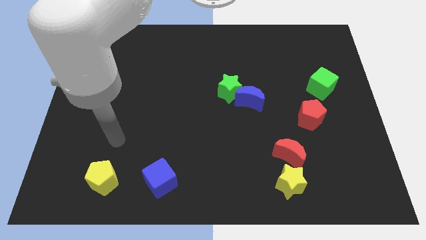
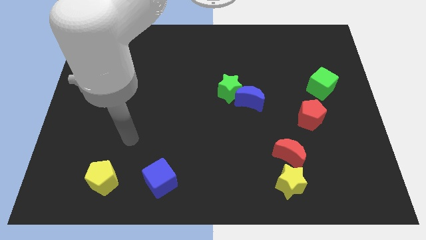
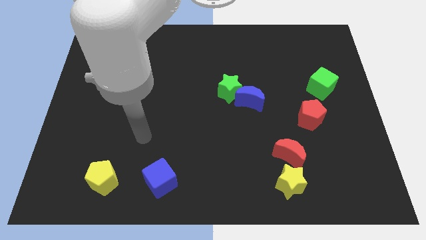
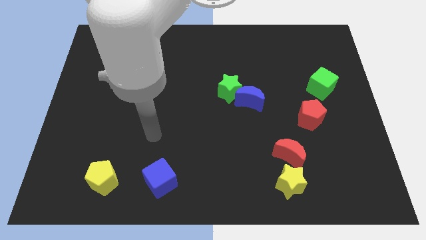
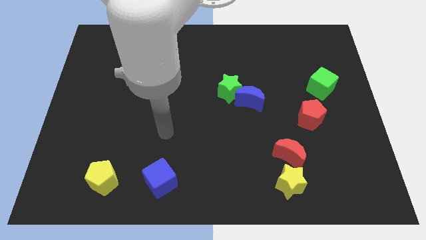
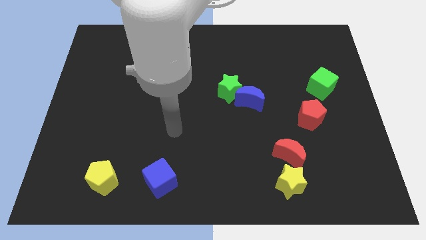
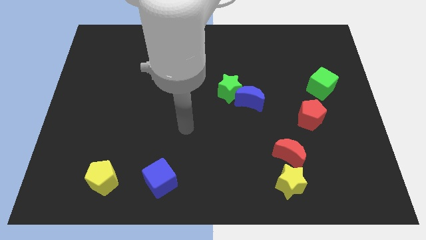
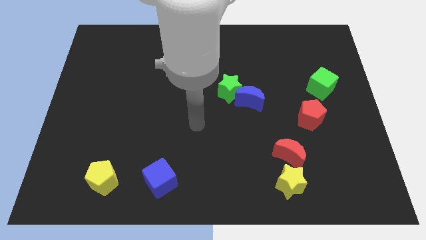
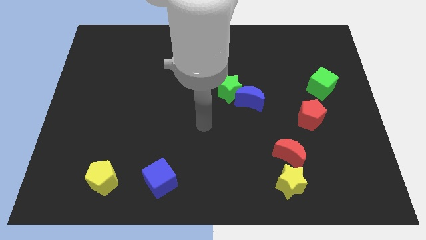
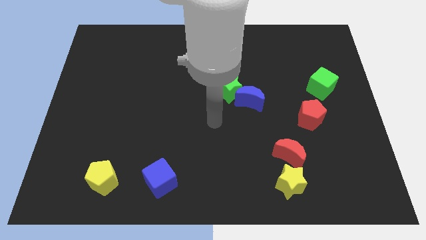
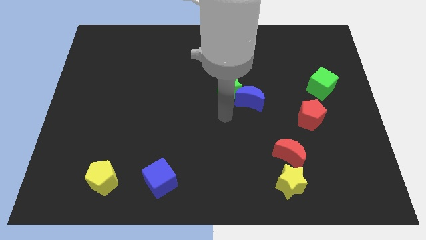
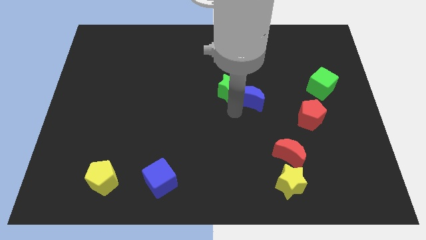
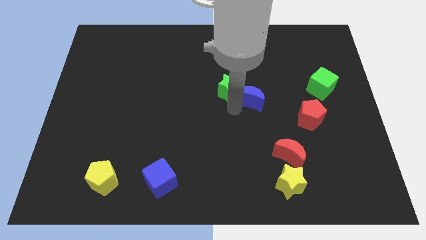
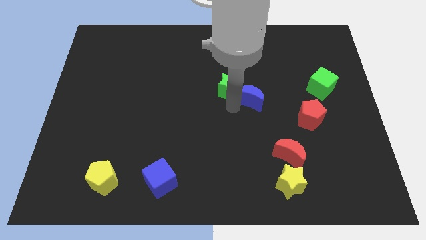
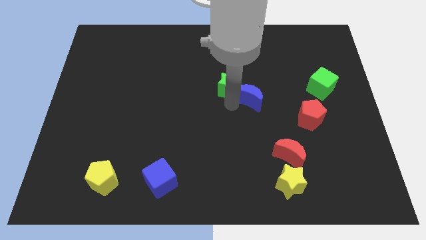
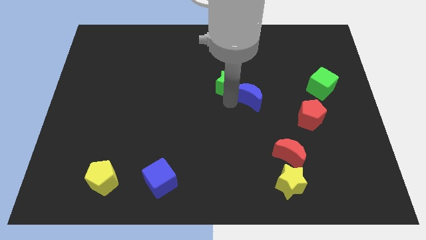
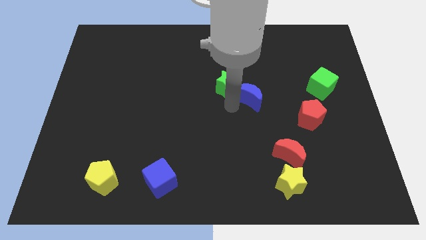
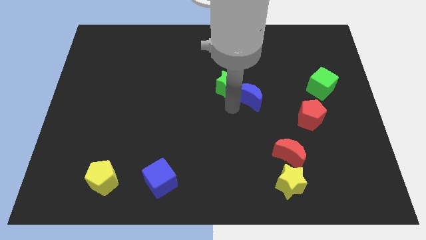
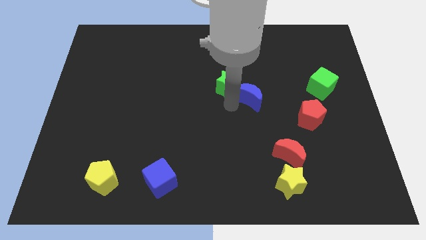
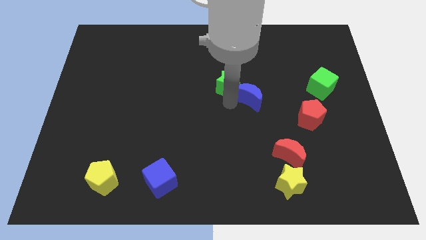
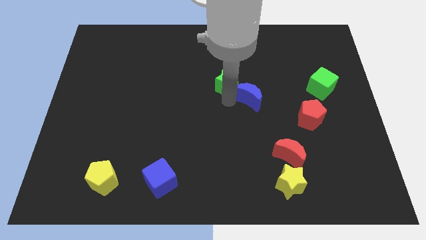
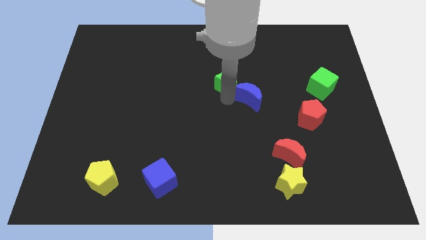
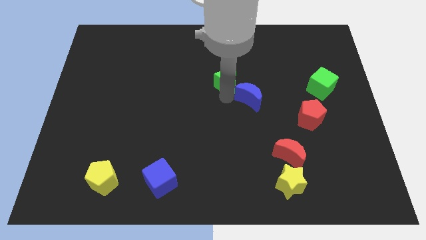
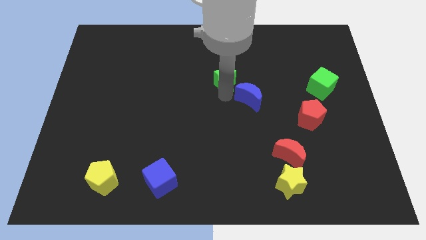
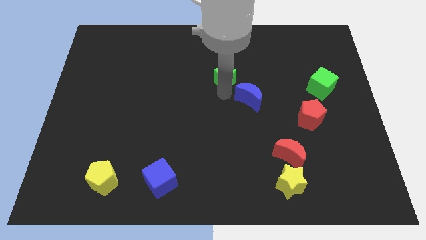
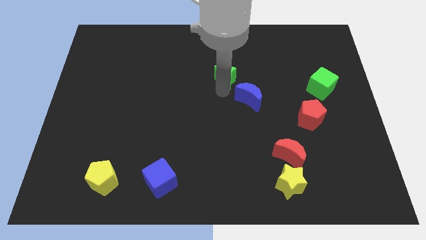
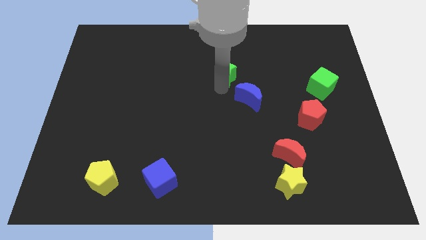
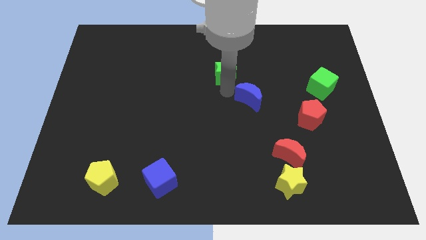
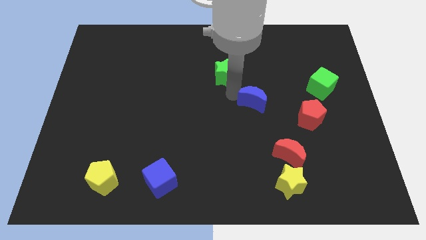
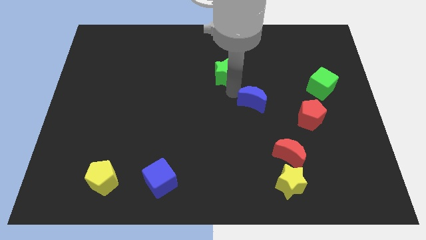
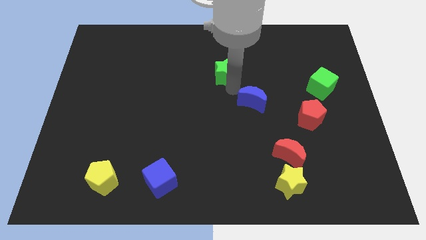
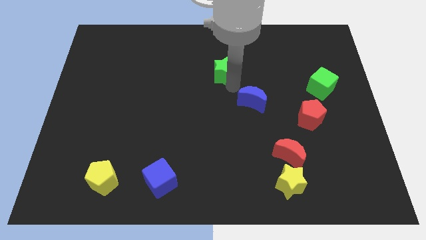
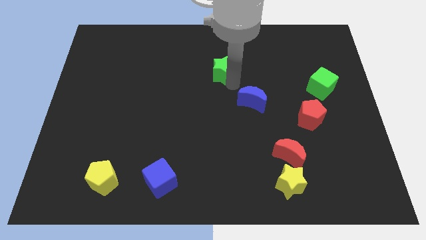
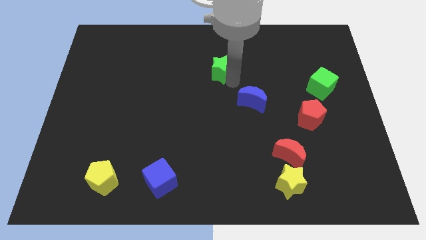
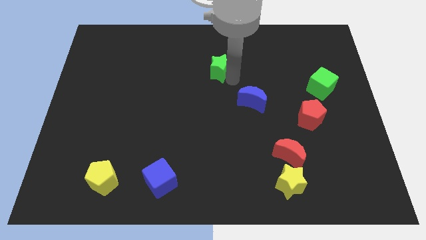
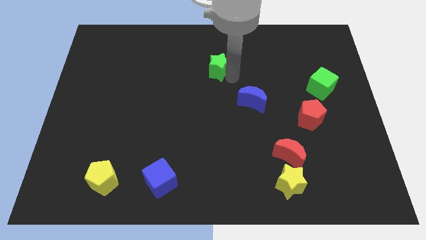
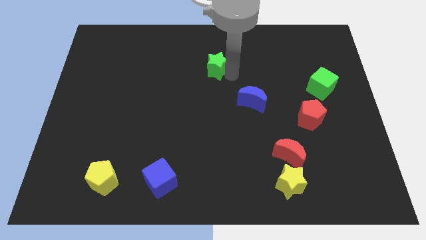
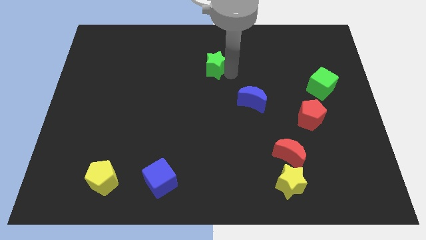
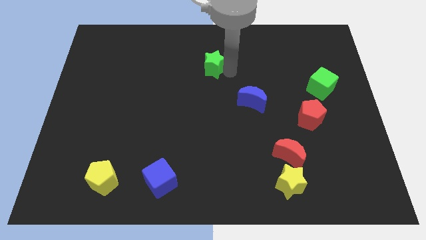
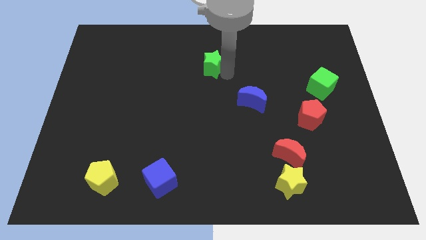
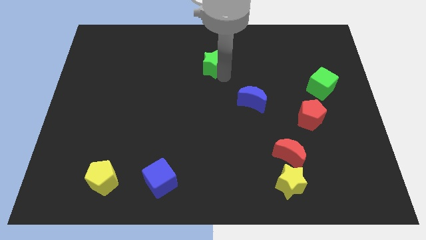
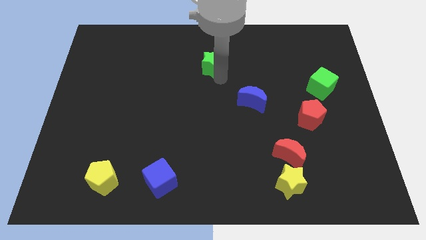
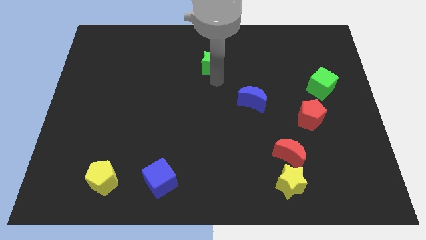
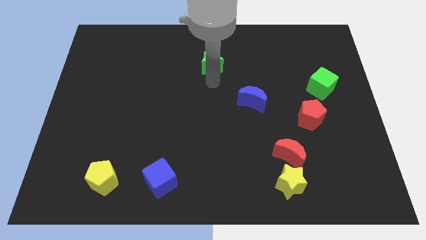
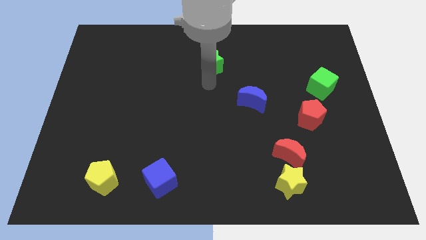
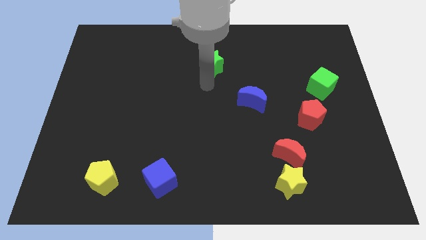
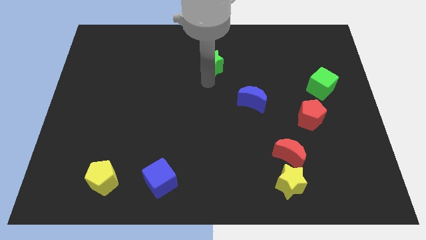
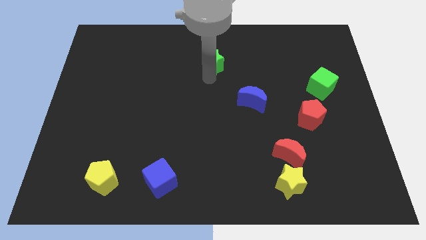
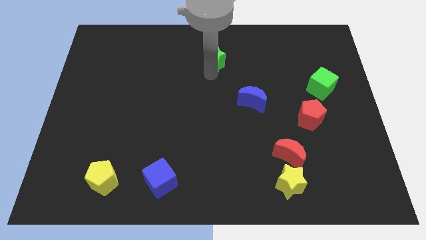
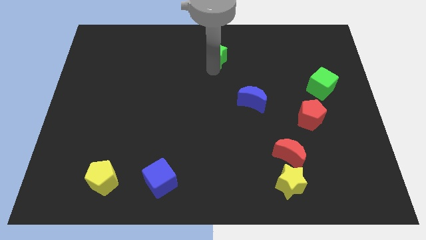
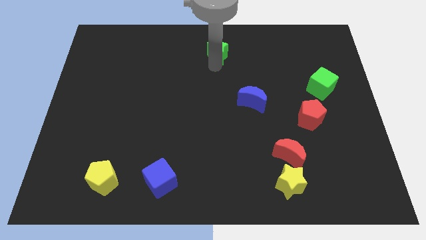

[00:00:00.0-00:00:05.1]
push the green star to the top side

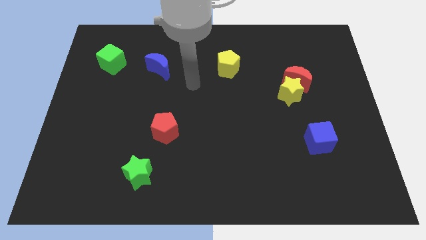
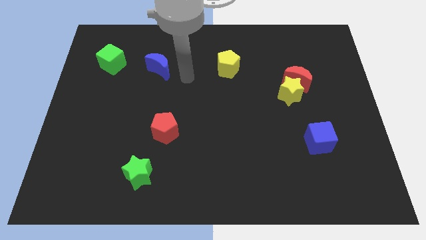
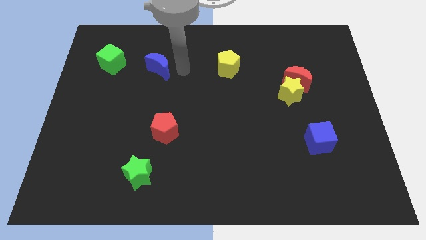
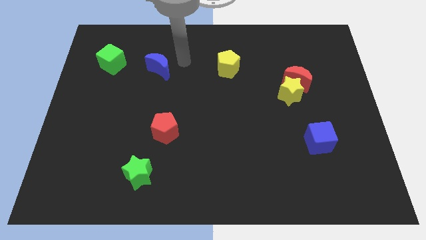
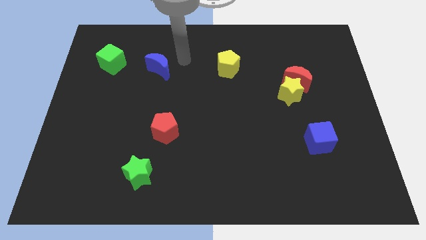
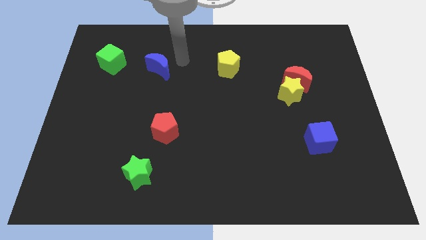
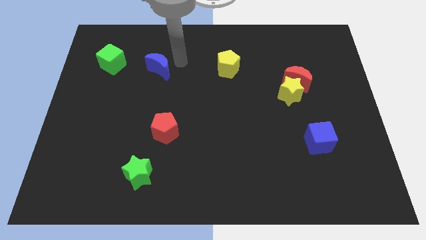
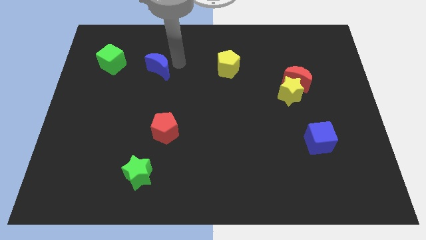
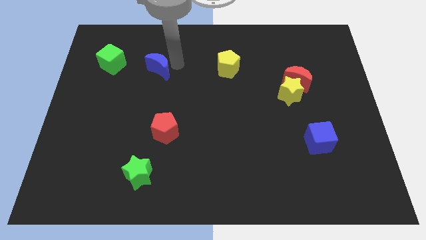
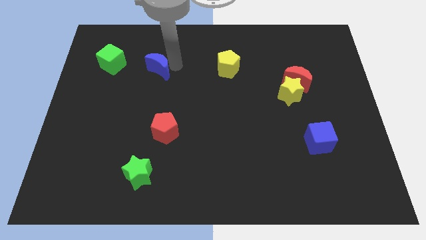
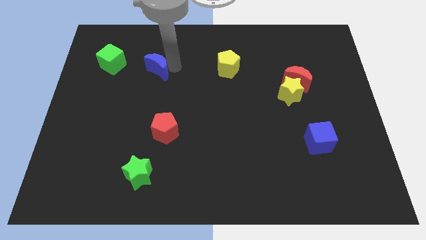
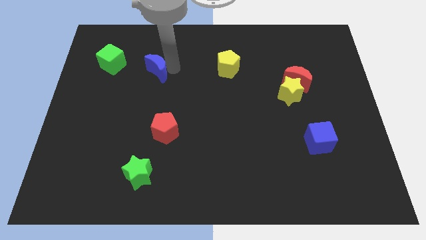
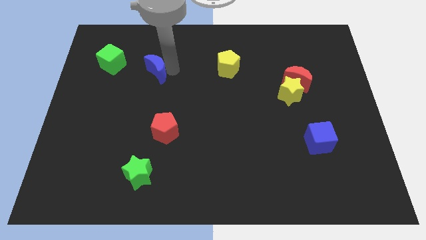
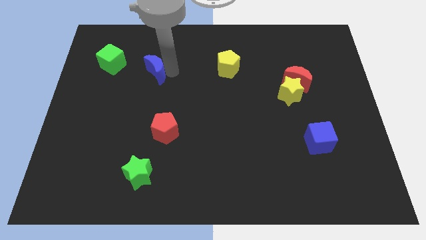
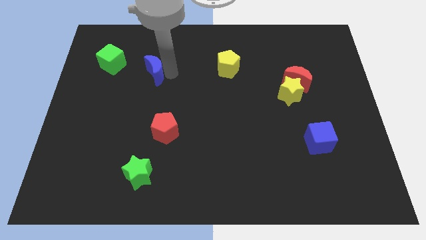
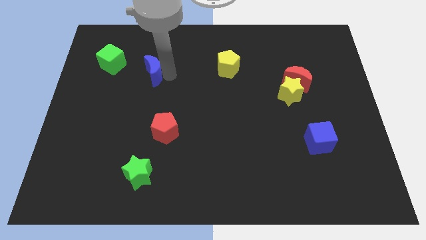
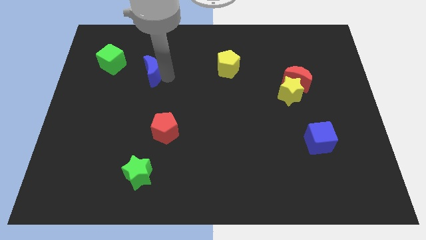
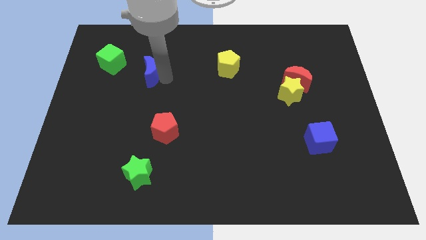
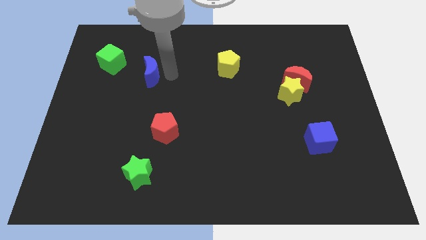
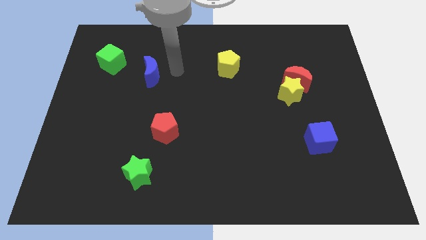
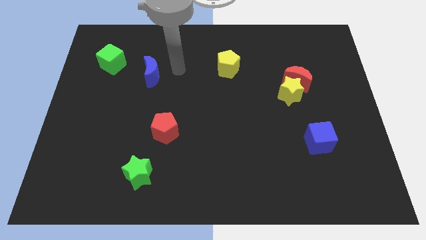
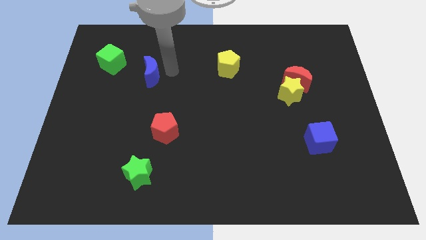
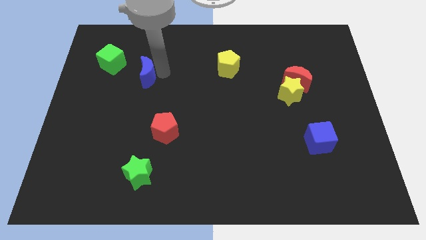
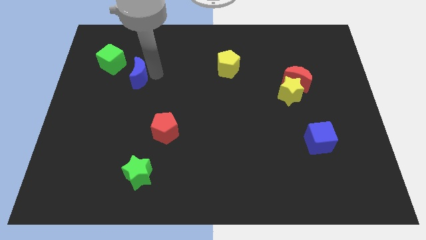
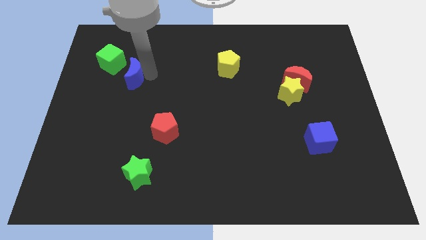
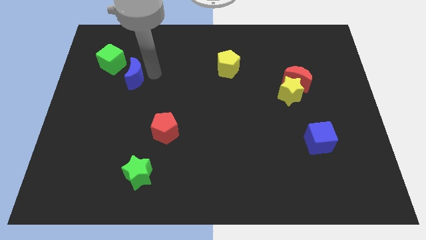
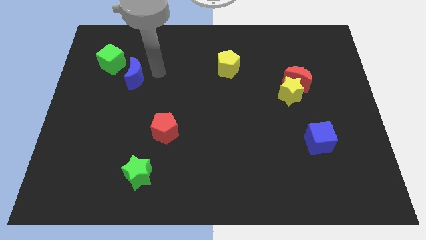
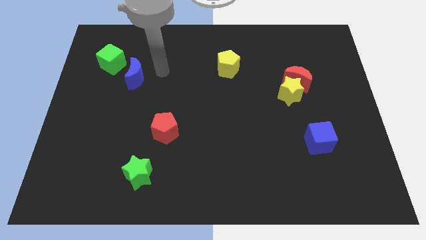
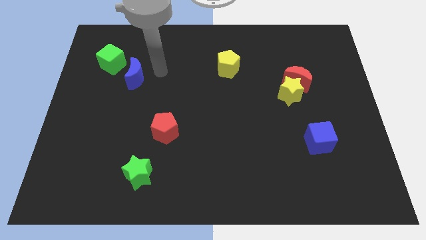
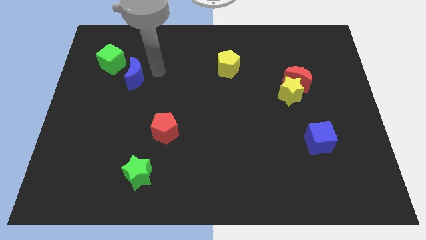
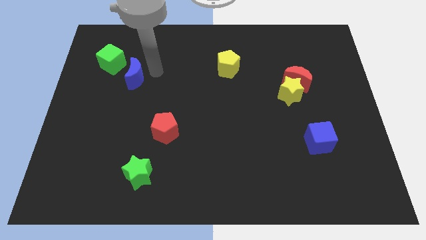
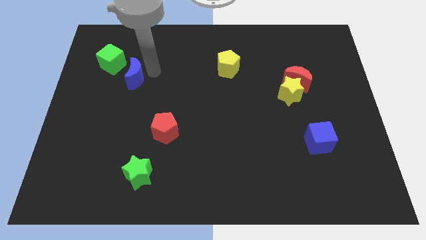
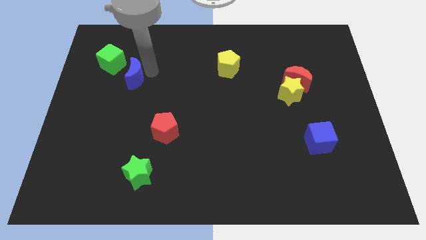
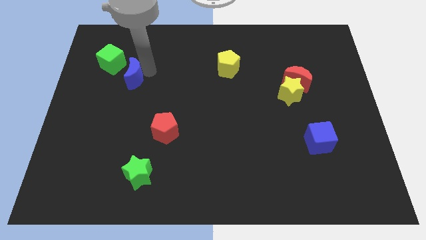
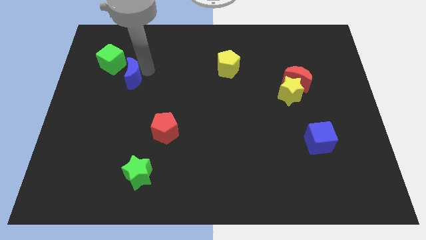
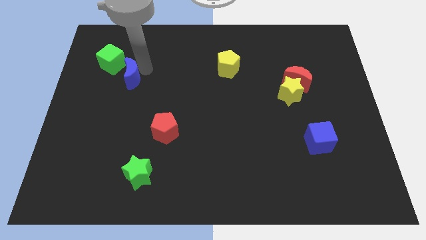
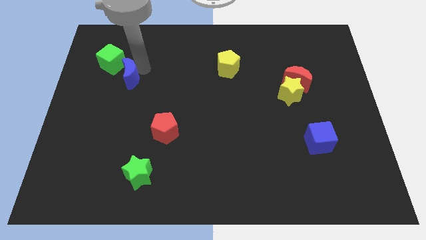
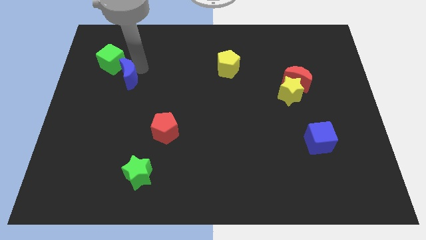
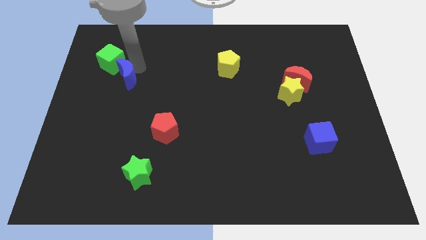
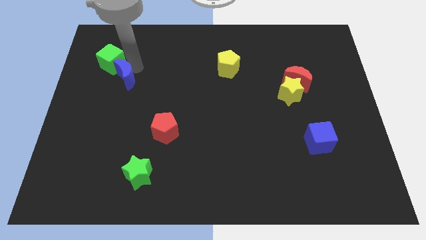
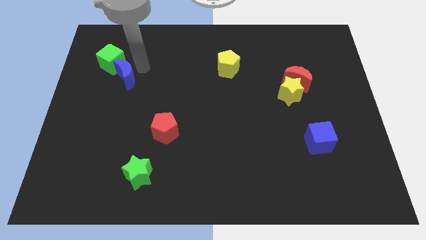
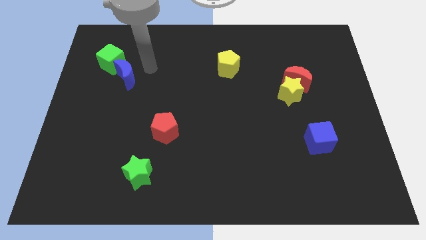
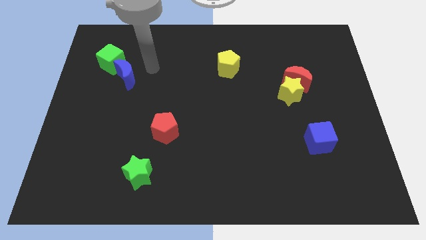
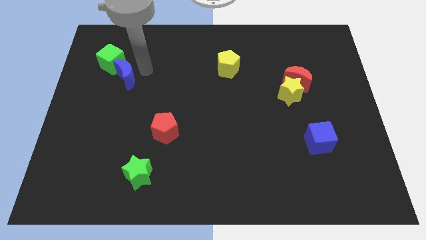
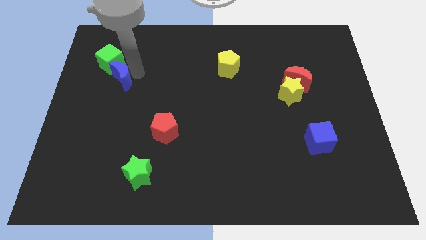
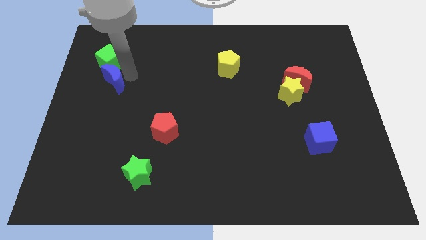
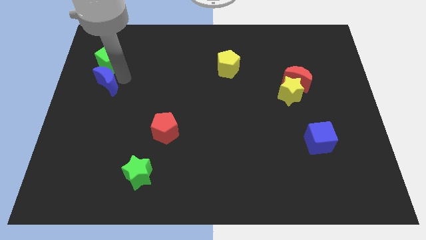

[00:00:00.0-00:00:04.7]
put the blue moon to the center left
